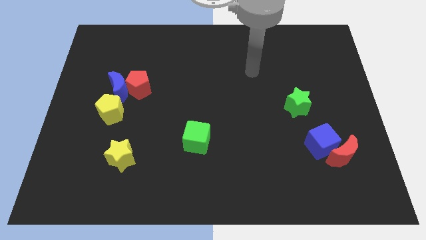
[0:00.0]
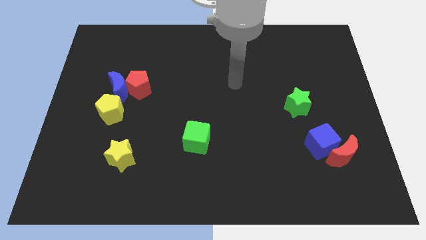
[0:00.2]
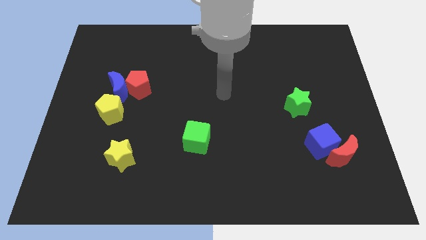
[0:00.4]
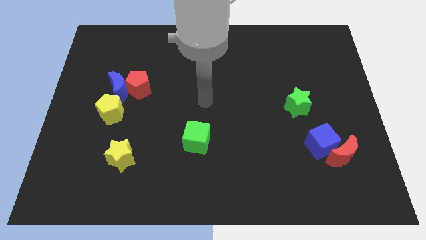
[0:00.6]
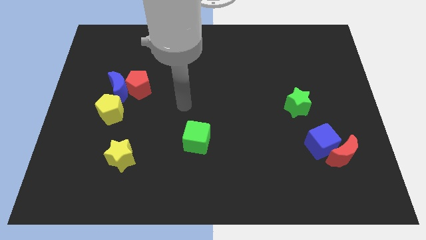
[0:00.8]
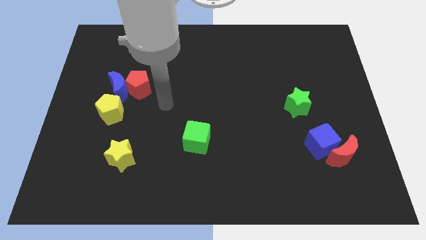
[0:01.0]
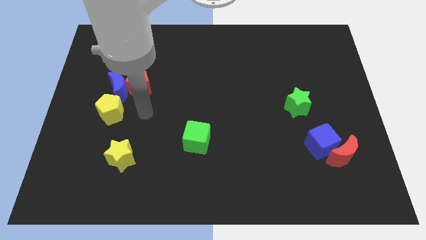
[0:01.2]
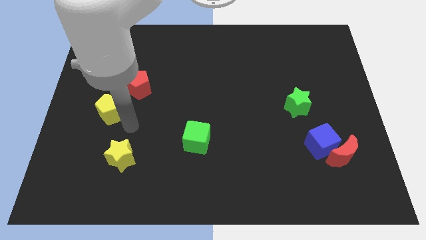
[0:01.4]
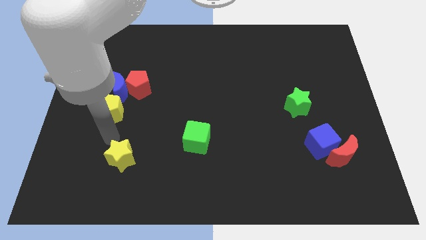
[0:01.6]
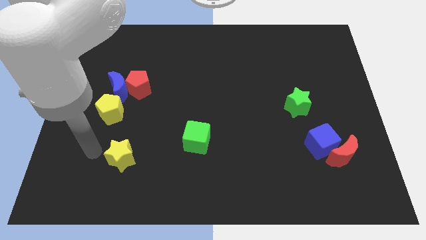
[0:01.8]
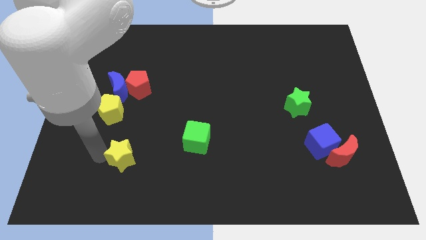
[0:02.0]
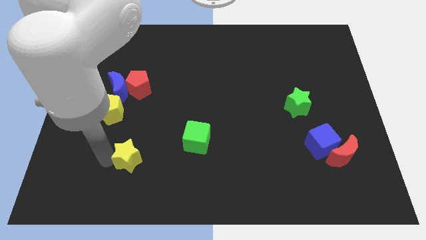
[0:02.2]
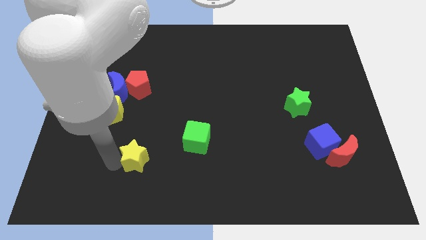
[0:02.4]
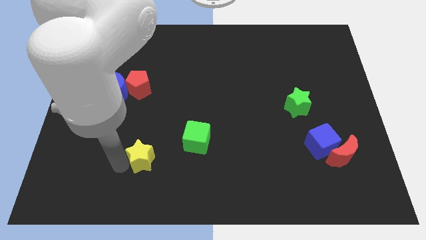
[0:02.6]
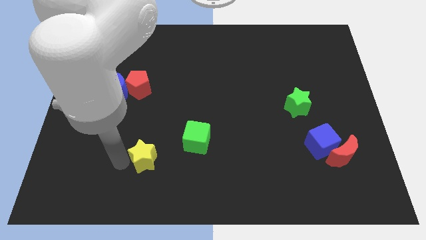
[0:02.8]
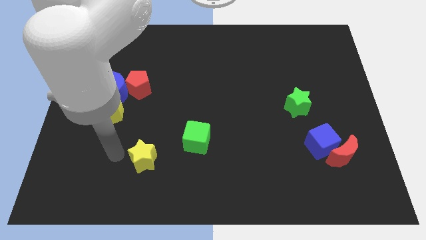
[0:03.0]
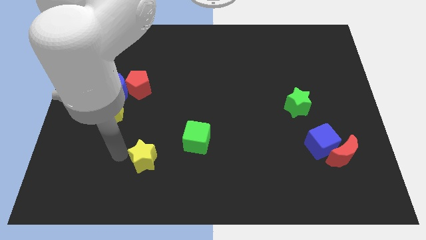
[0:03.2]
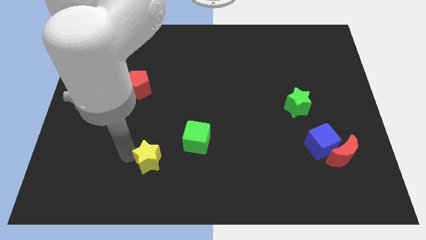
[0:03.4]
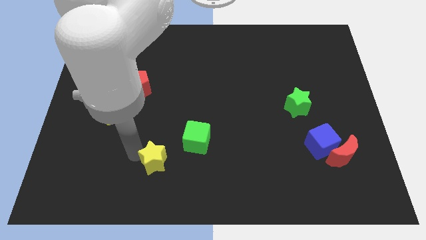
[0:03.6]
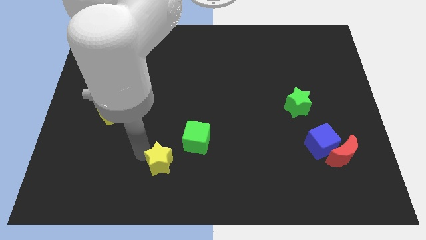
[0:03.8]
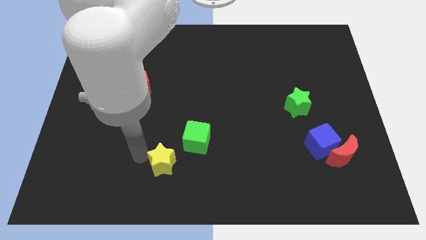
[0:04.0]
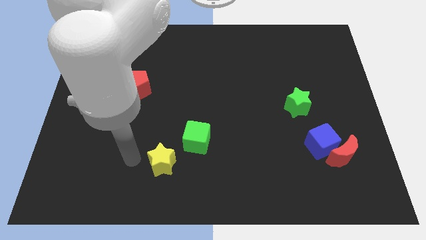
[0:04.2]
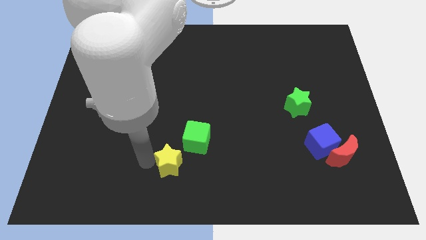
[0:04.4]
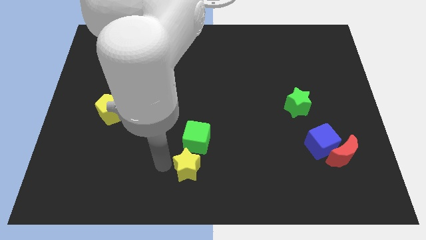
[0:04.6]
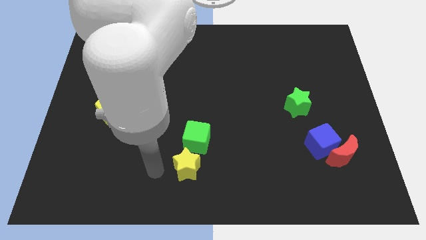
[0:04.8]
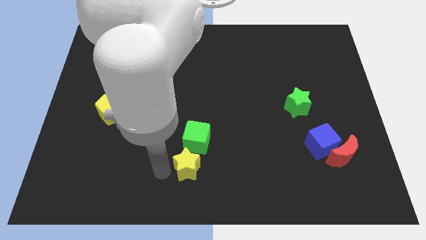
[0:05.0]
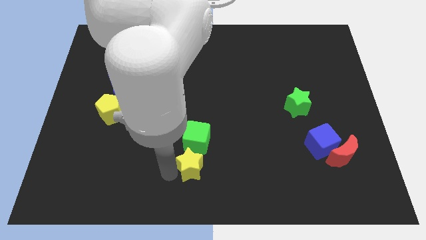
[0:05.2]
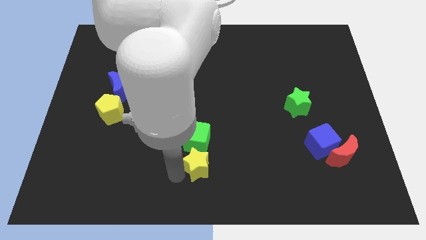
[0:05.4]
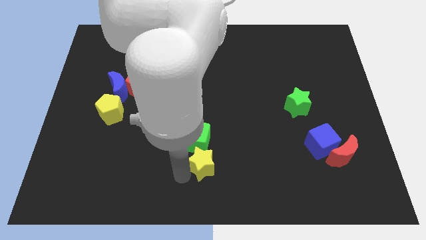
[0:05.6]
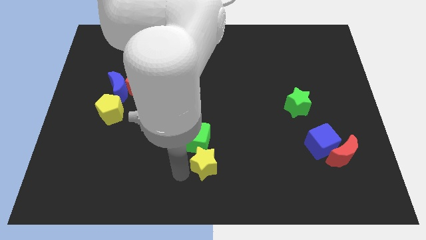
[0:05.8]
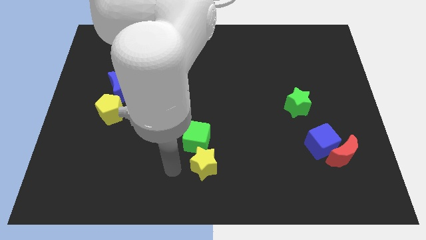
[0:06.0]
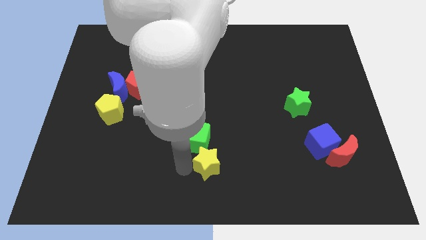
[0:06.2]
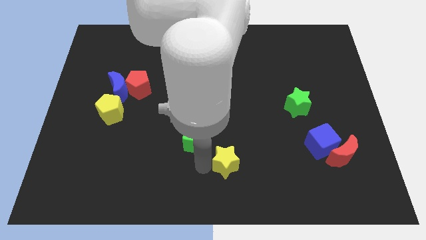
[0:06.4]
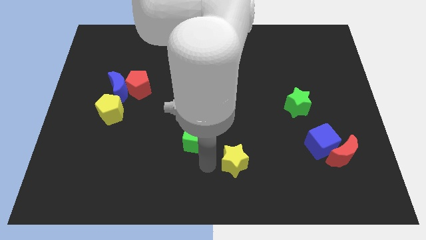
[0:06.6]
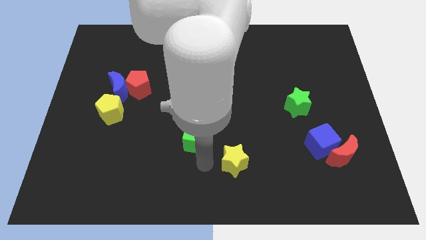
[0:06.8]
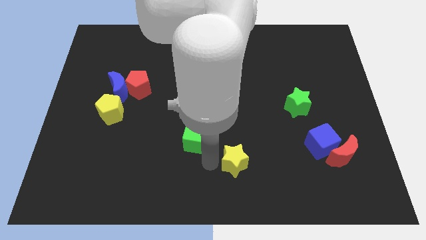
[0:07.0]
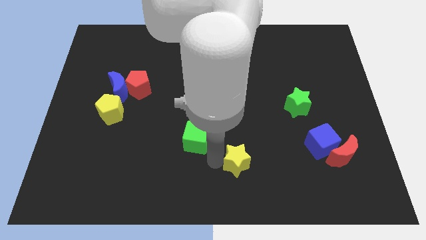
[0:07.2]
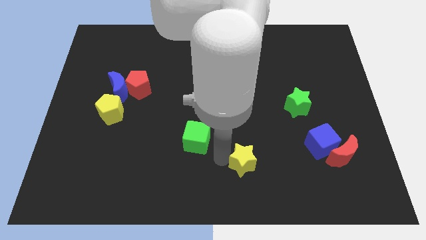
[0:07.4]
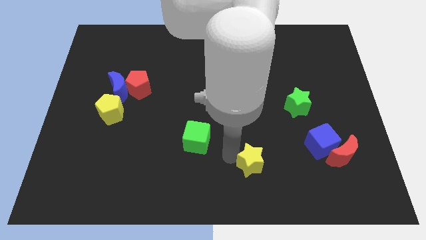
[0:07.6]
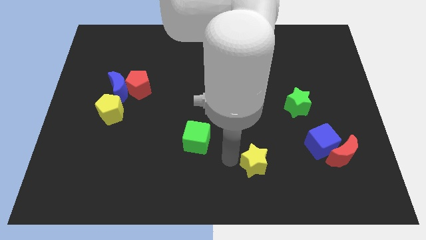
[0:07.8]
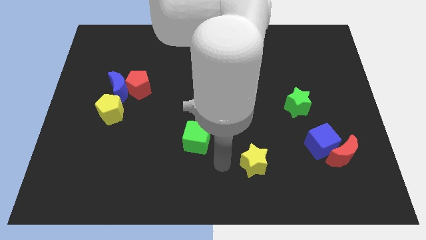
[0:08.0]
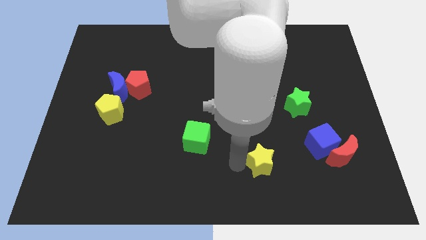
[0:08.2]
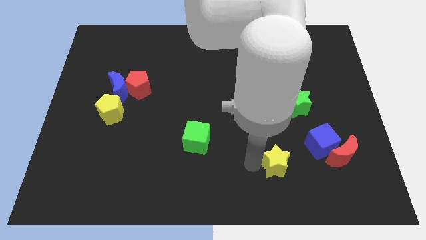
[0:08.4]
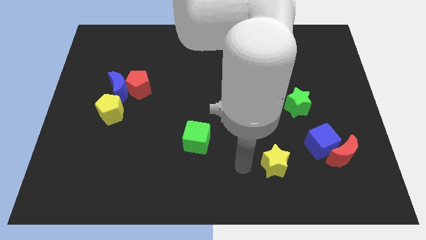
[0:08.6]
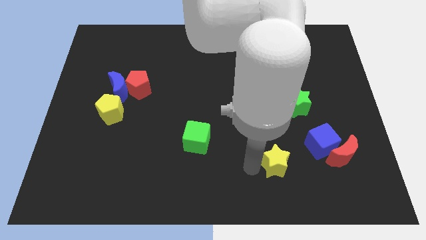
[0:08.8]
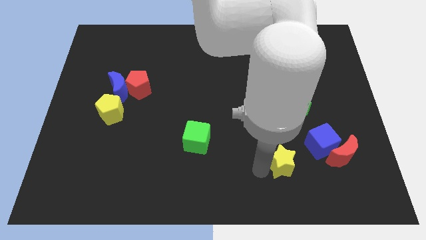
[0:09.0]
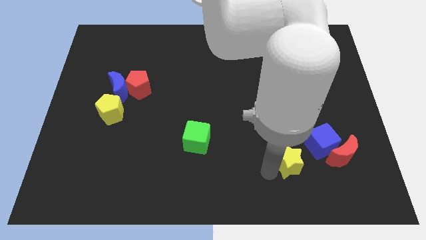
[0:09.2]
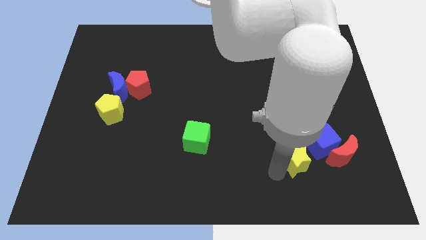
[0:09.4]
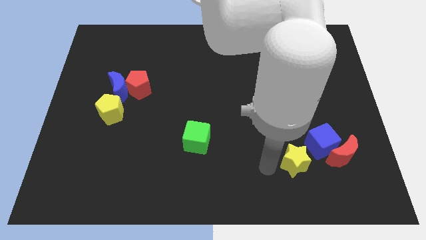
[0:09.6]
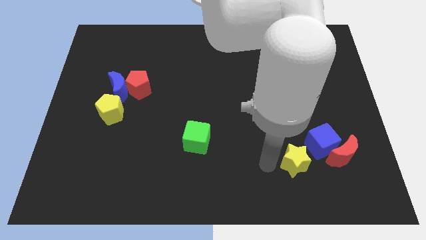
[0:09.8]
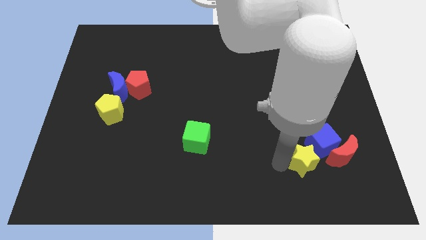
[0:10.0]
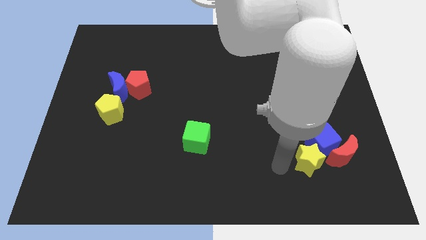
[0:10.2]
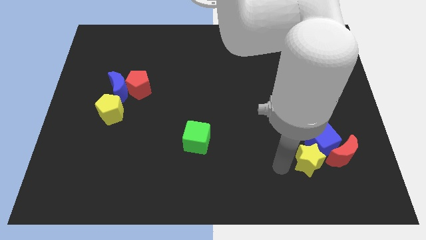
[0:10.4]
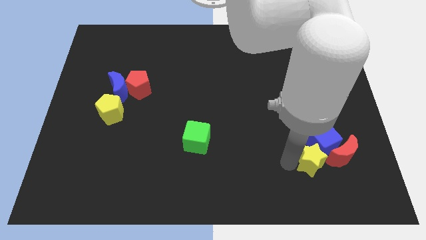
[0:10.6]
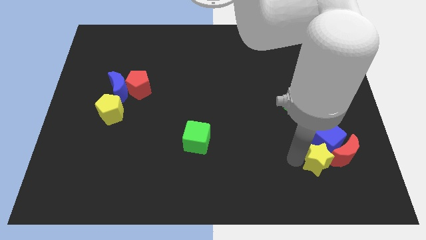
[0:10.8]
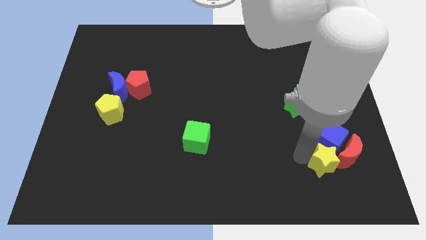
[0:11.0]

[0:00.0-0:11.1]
slide the yellow star next to the red moon

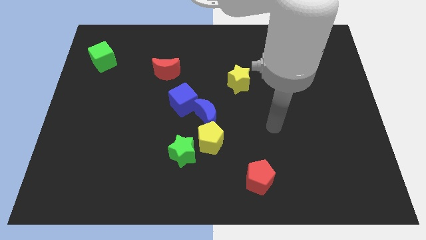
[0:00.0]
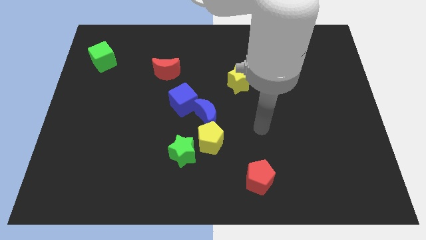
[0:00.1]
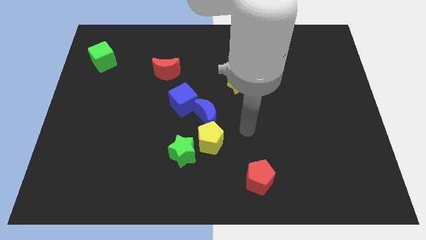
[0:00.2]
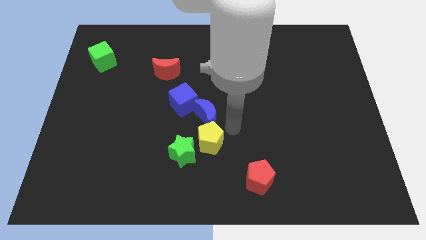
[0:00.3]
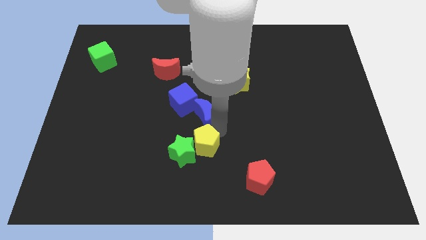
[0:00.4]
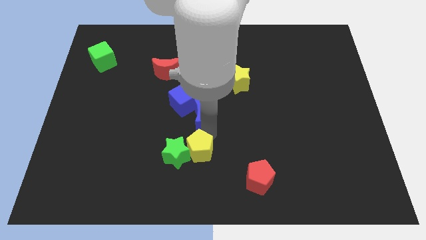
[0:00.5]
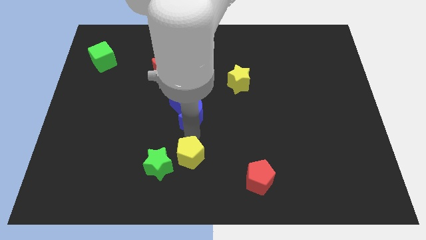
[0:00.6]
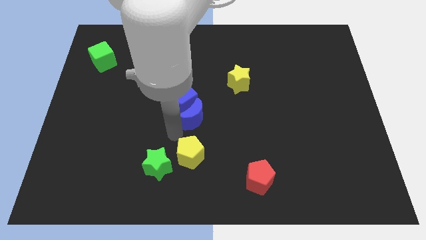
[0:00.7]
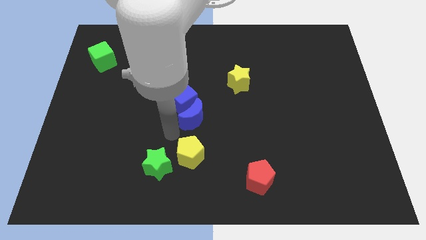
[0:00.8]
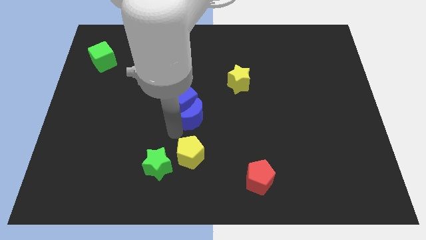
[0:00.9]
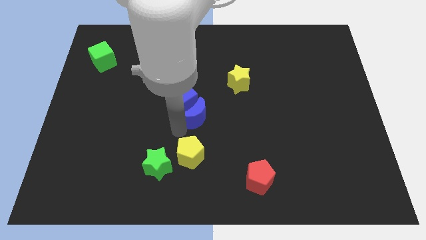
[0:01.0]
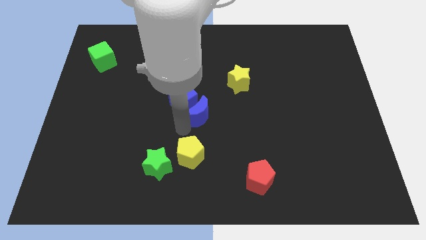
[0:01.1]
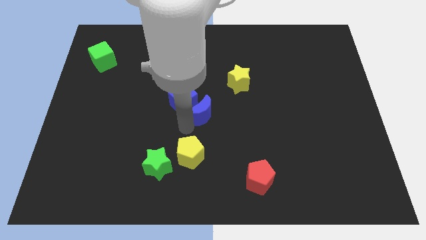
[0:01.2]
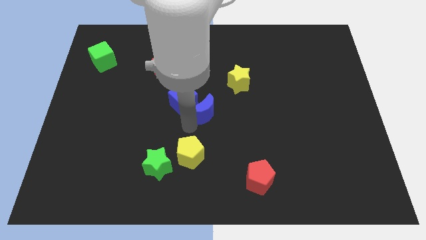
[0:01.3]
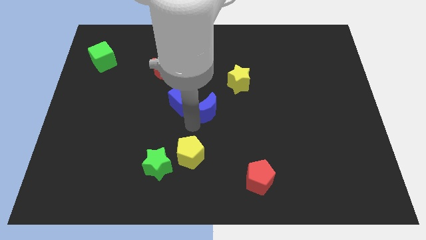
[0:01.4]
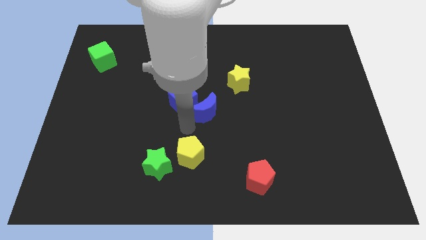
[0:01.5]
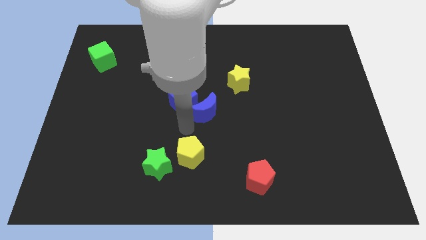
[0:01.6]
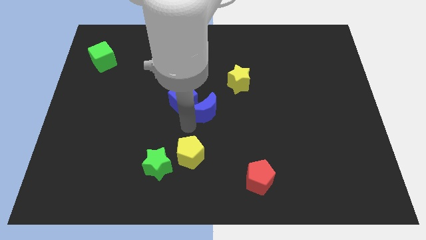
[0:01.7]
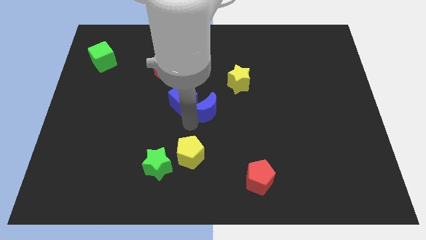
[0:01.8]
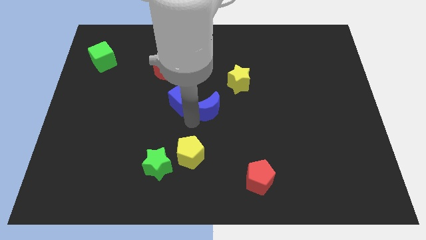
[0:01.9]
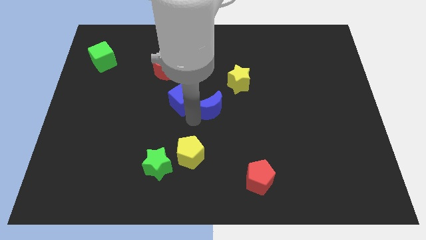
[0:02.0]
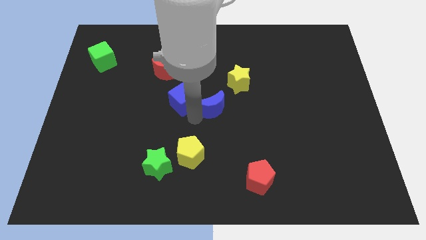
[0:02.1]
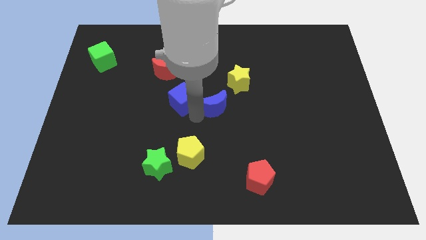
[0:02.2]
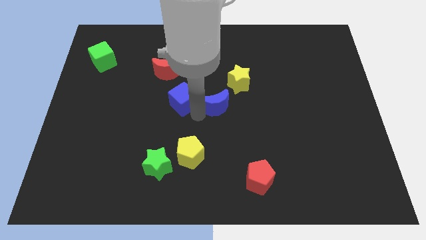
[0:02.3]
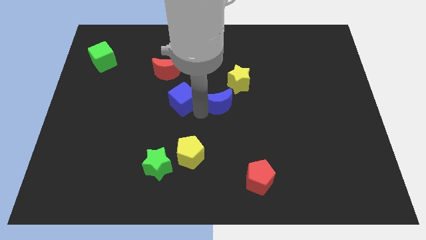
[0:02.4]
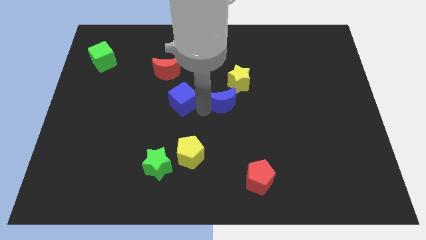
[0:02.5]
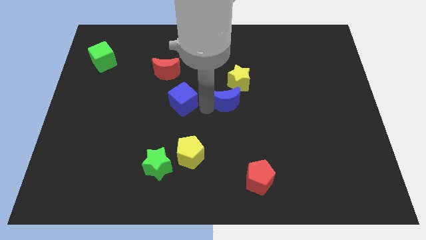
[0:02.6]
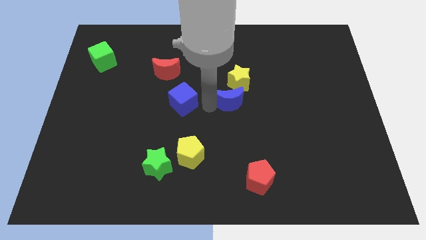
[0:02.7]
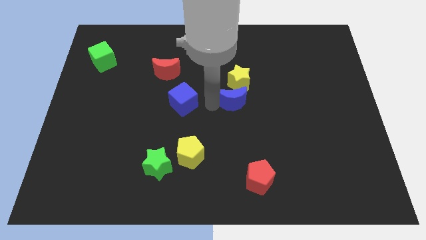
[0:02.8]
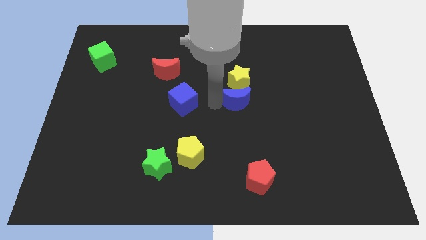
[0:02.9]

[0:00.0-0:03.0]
push the blue moon towards the yellow star
